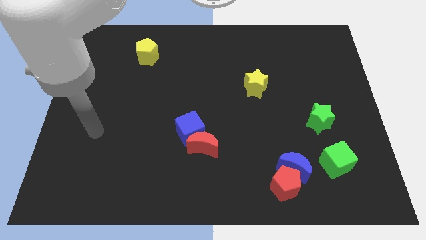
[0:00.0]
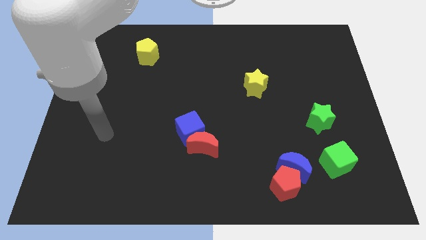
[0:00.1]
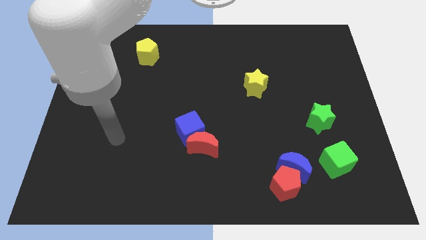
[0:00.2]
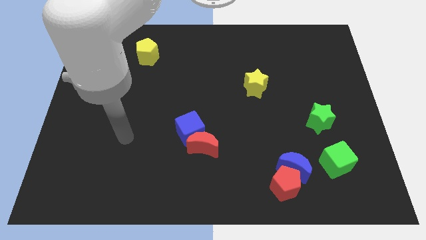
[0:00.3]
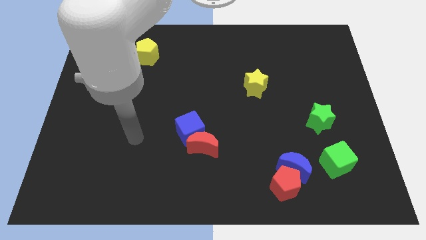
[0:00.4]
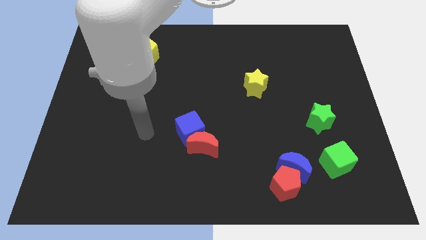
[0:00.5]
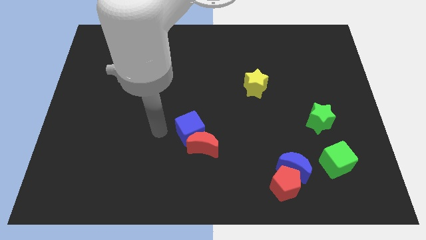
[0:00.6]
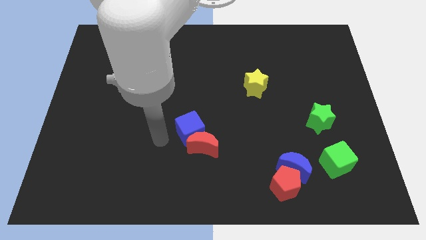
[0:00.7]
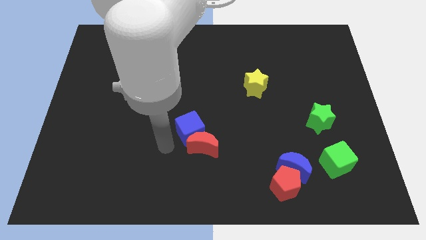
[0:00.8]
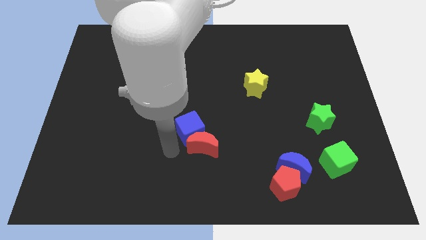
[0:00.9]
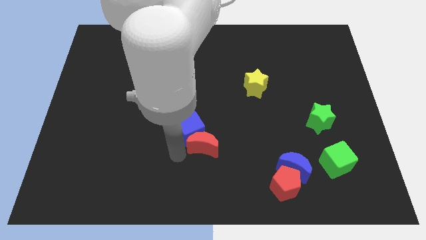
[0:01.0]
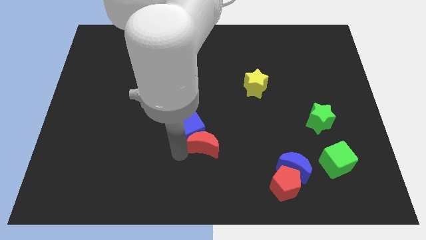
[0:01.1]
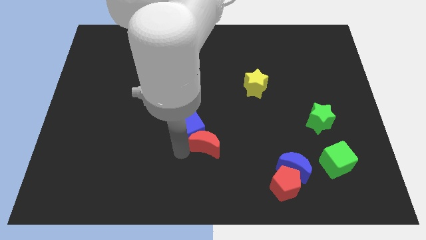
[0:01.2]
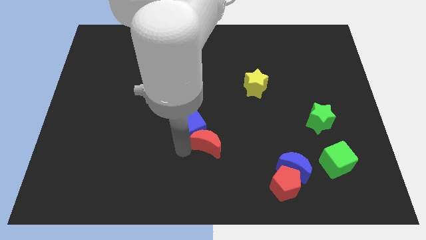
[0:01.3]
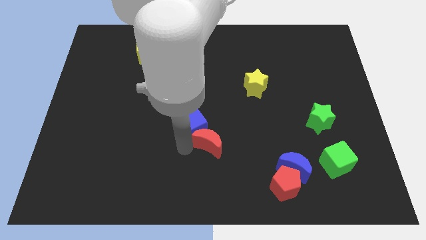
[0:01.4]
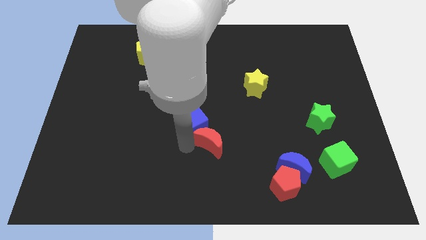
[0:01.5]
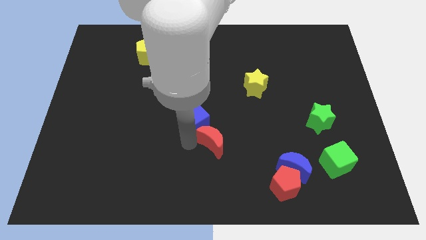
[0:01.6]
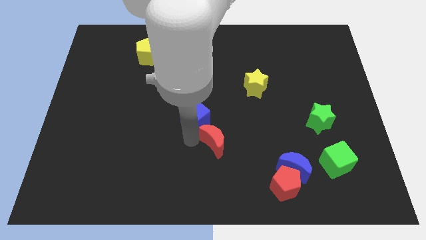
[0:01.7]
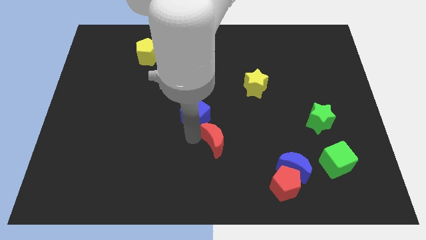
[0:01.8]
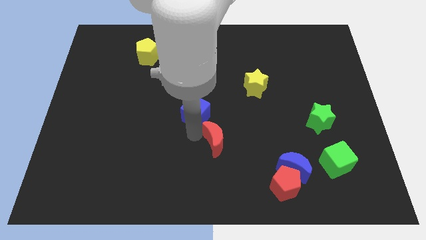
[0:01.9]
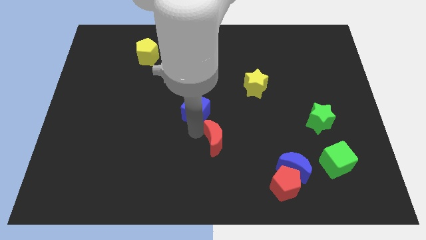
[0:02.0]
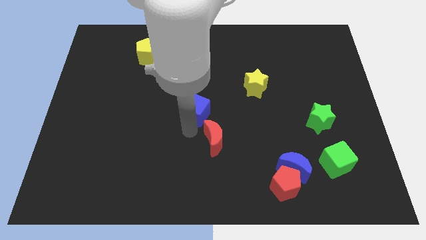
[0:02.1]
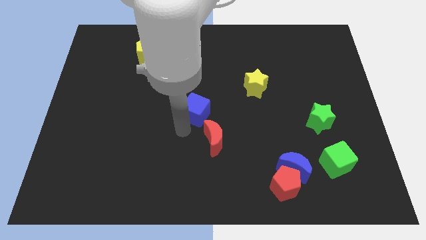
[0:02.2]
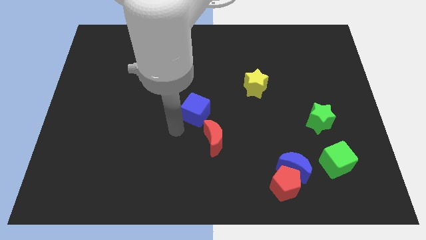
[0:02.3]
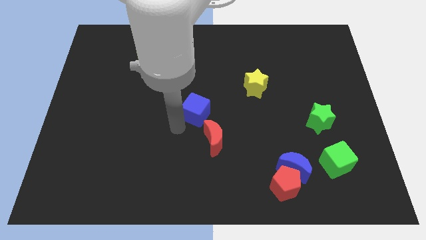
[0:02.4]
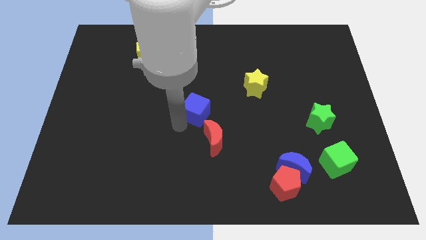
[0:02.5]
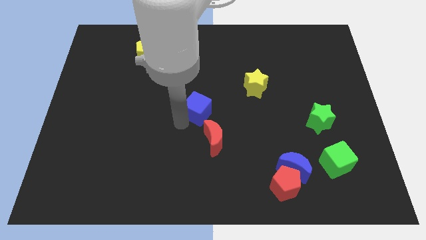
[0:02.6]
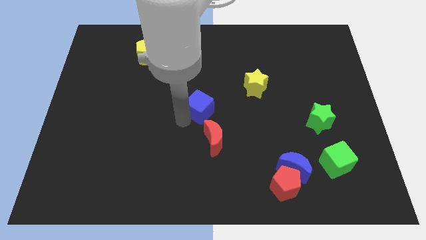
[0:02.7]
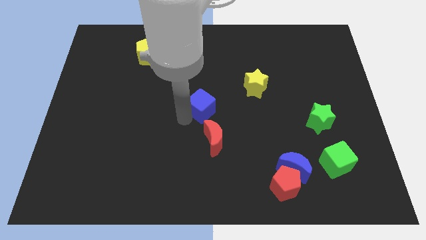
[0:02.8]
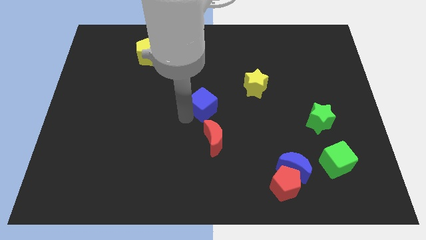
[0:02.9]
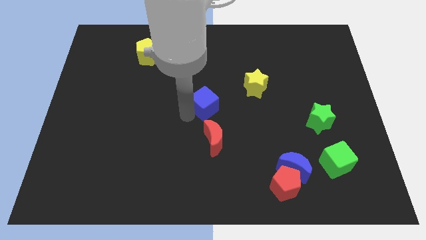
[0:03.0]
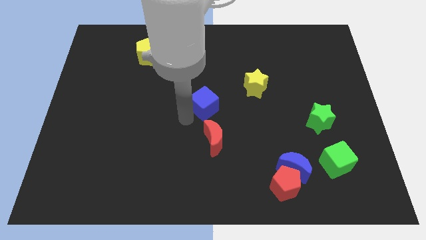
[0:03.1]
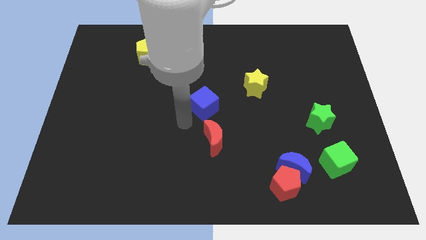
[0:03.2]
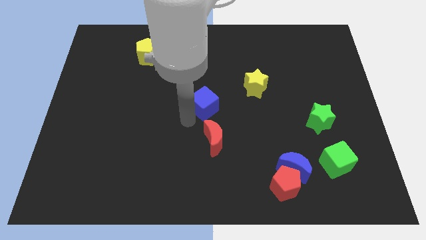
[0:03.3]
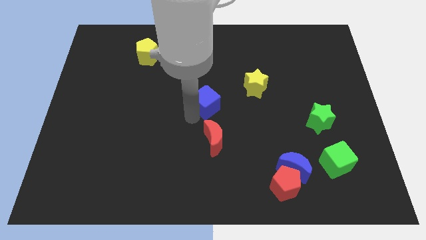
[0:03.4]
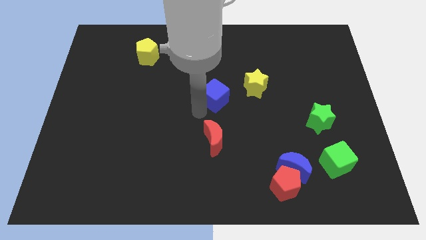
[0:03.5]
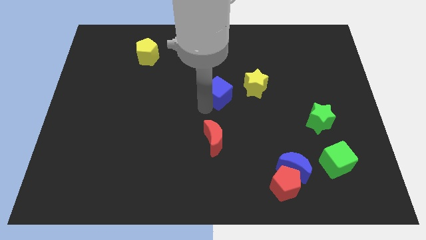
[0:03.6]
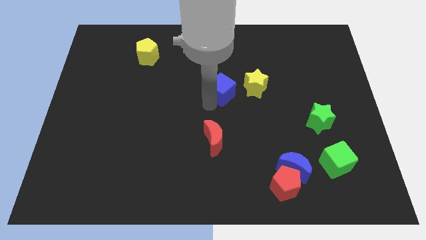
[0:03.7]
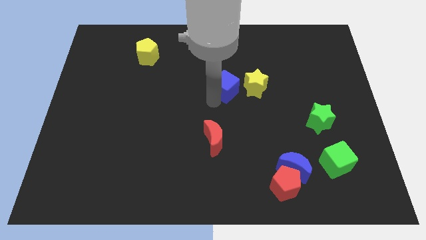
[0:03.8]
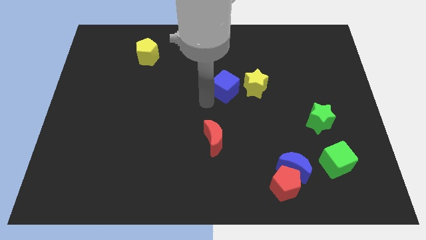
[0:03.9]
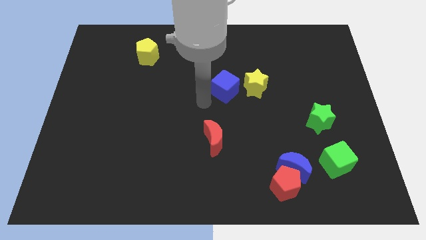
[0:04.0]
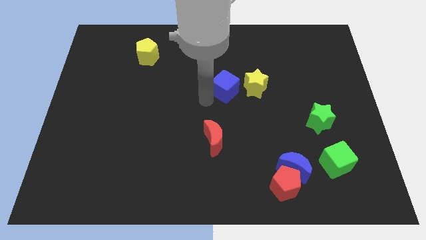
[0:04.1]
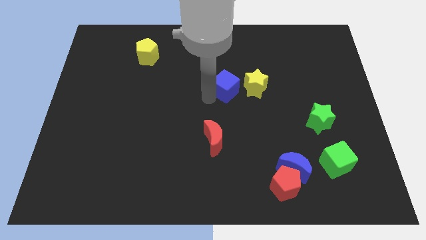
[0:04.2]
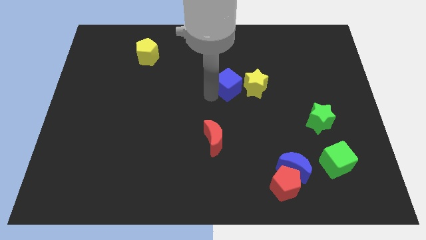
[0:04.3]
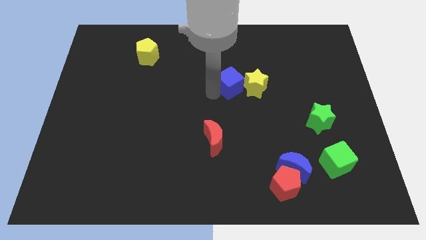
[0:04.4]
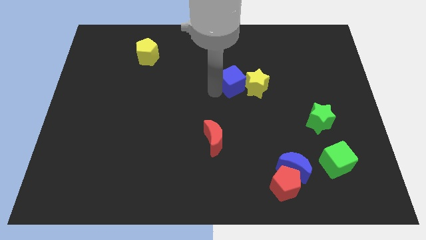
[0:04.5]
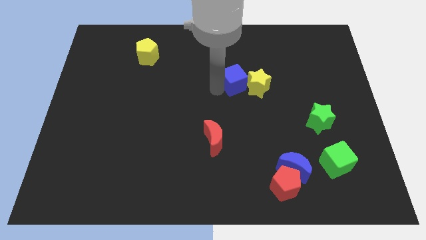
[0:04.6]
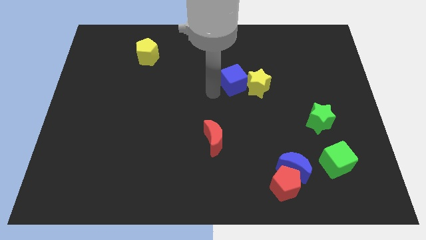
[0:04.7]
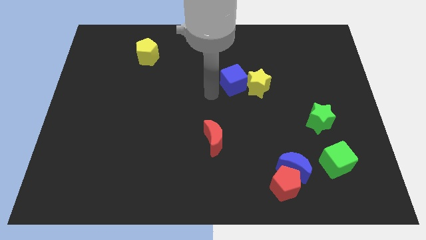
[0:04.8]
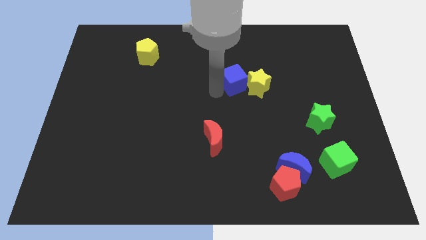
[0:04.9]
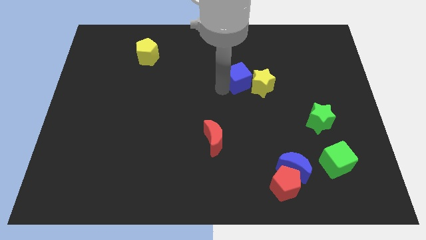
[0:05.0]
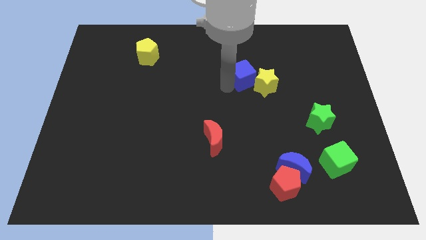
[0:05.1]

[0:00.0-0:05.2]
move the blue cube diagonally upwards and to the right

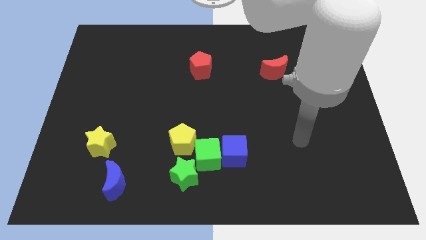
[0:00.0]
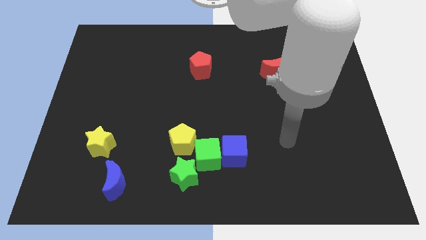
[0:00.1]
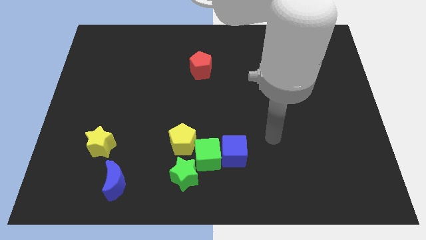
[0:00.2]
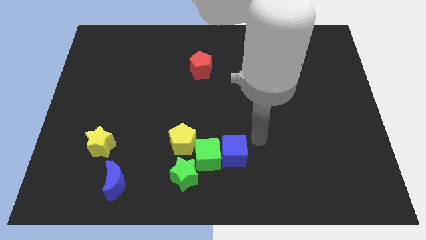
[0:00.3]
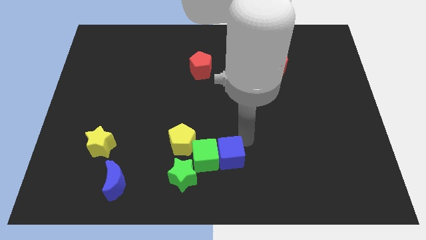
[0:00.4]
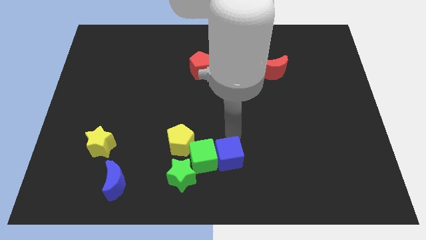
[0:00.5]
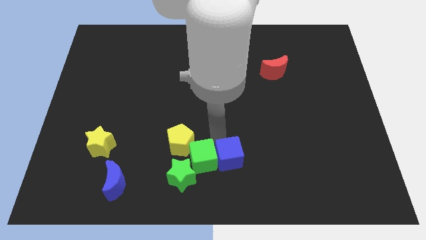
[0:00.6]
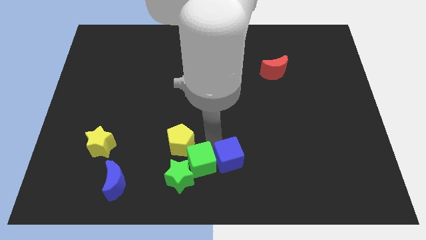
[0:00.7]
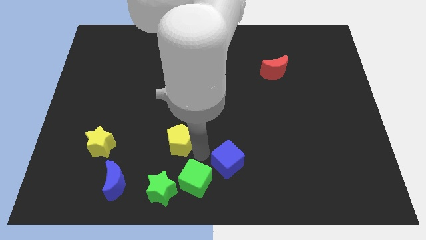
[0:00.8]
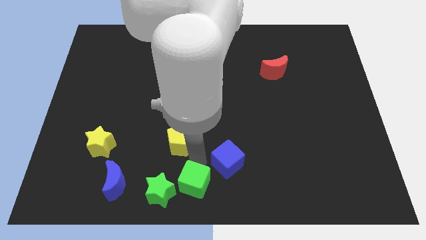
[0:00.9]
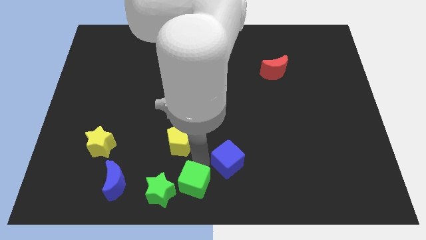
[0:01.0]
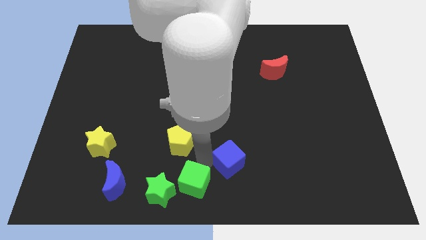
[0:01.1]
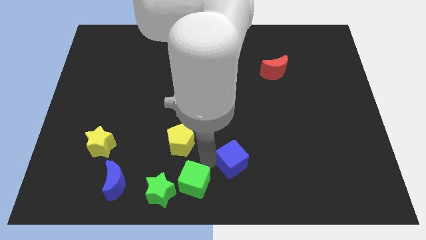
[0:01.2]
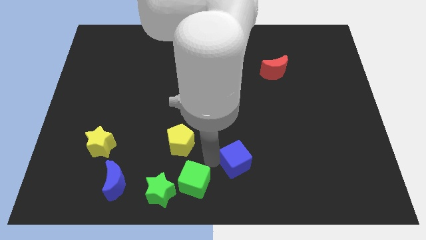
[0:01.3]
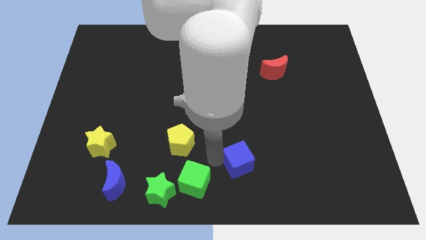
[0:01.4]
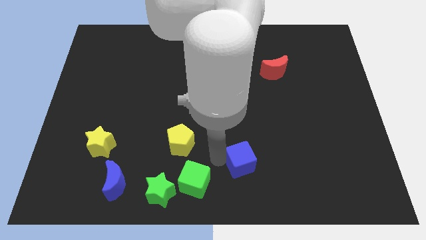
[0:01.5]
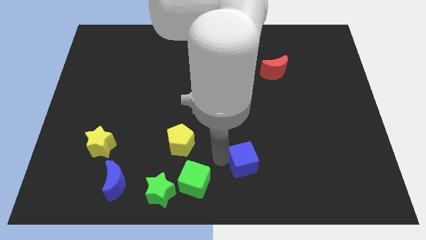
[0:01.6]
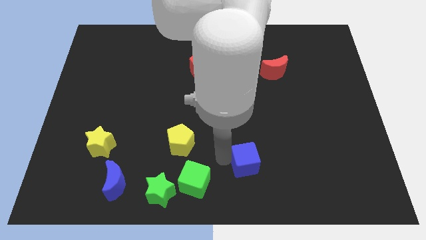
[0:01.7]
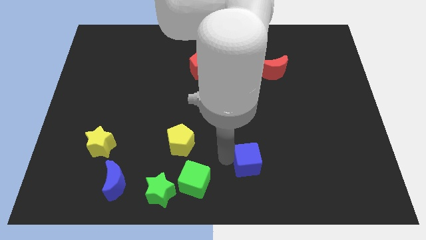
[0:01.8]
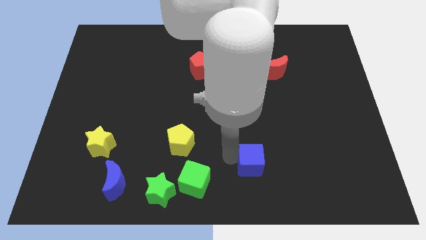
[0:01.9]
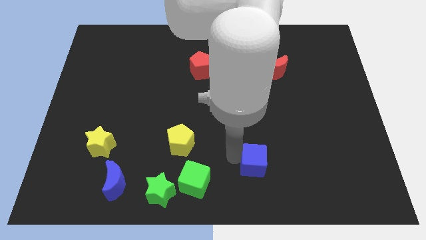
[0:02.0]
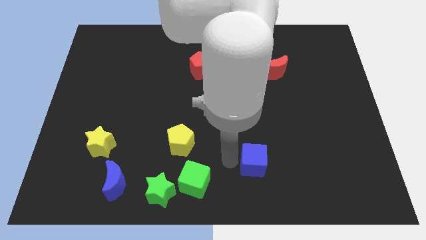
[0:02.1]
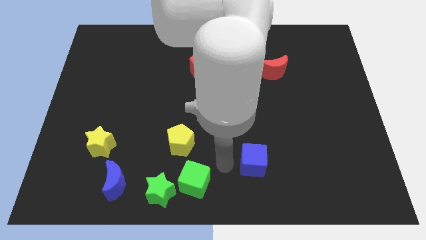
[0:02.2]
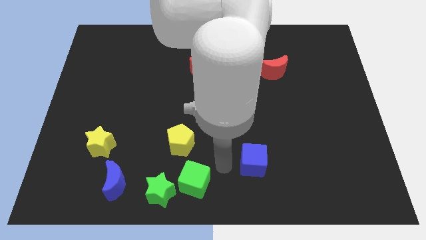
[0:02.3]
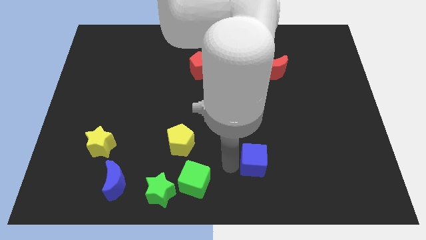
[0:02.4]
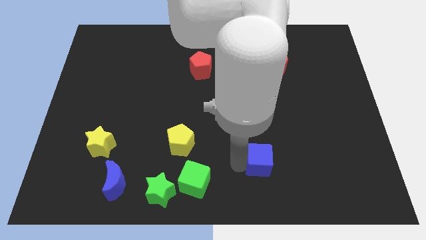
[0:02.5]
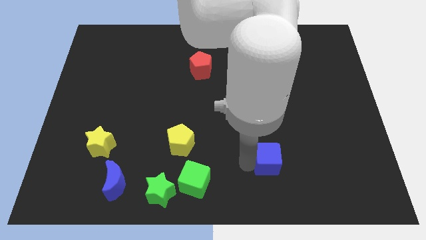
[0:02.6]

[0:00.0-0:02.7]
slightly move the blue cube right
